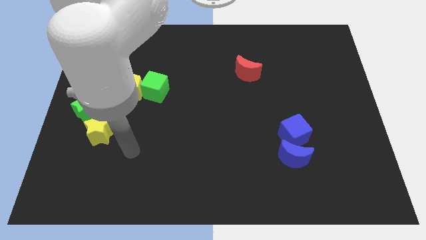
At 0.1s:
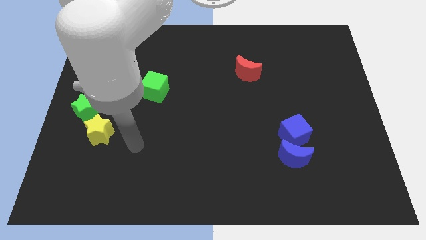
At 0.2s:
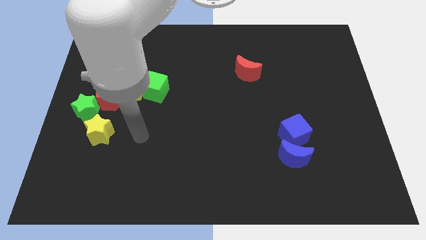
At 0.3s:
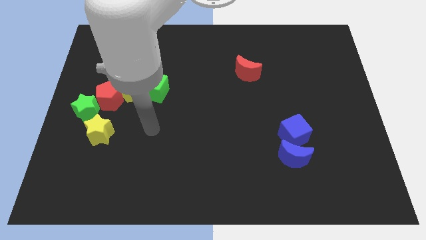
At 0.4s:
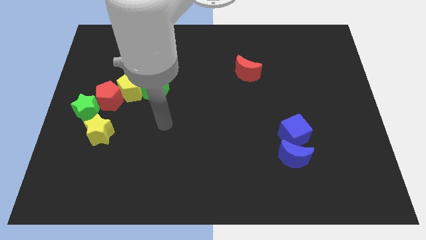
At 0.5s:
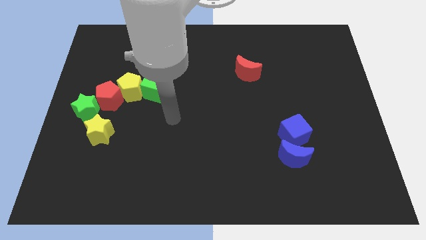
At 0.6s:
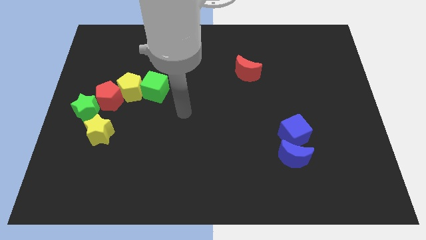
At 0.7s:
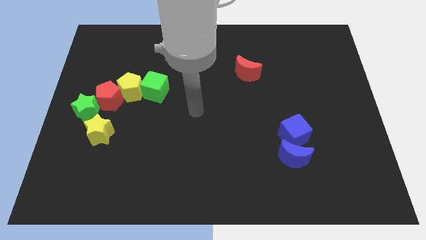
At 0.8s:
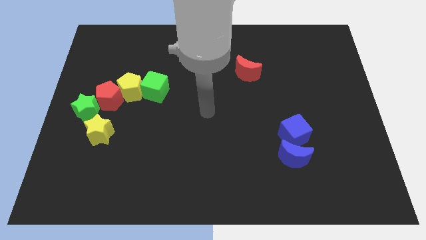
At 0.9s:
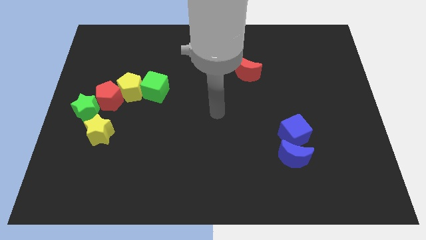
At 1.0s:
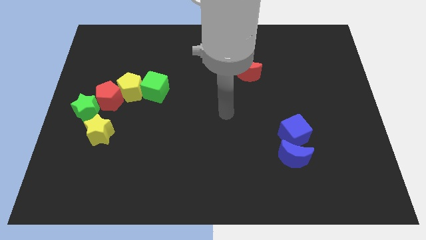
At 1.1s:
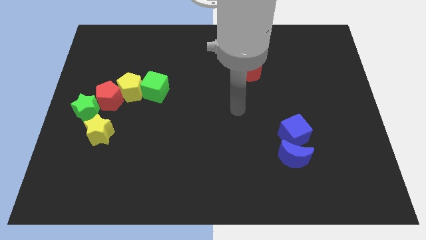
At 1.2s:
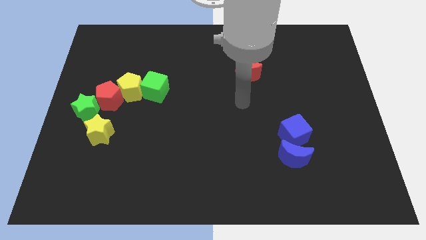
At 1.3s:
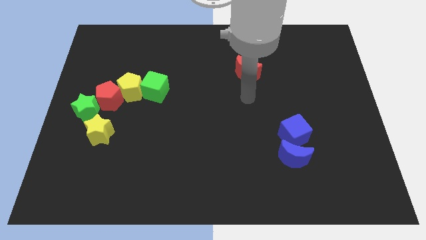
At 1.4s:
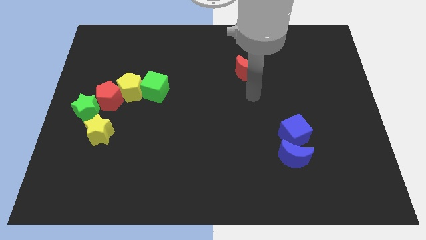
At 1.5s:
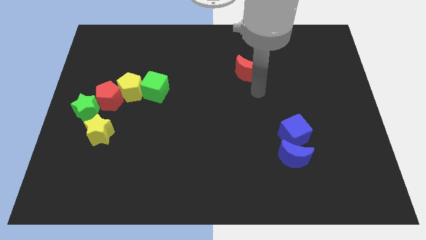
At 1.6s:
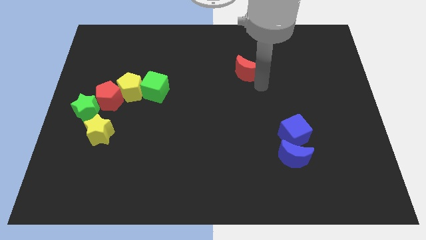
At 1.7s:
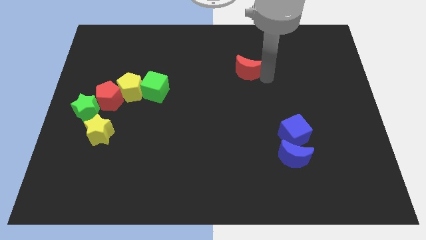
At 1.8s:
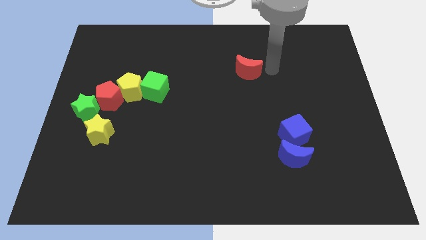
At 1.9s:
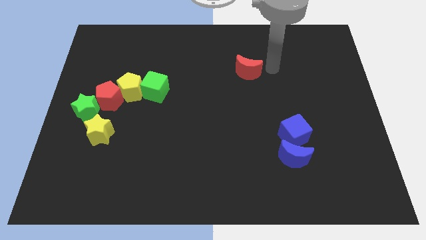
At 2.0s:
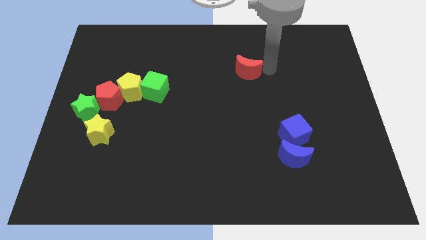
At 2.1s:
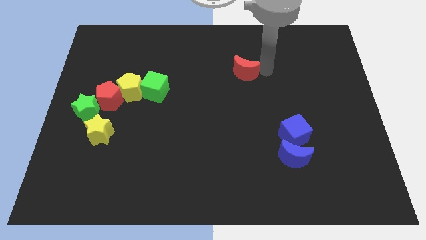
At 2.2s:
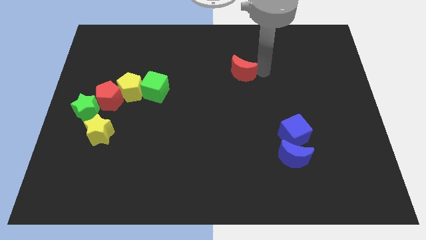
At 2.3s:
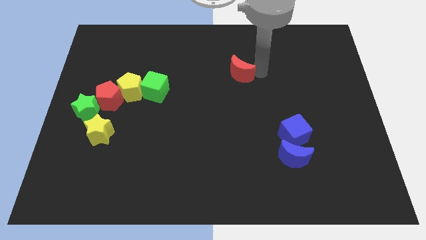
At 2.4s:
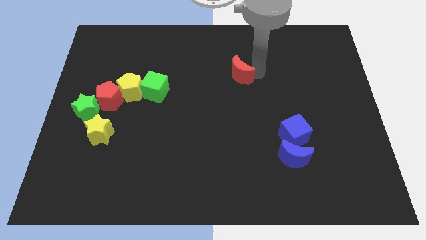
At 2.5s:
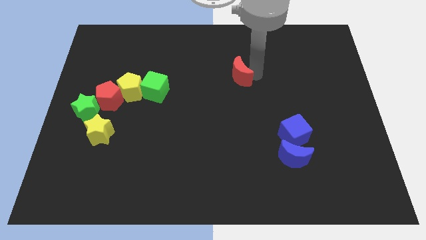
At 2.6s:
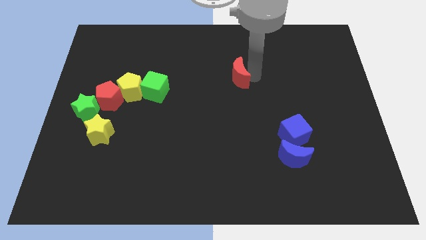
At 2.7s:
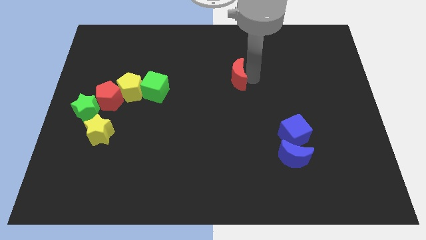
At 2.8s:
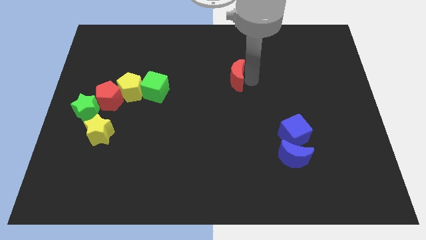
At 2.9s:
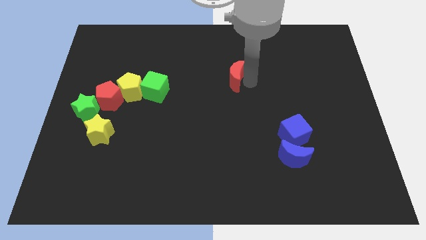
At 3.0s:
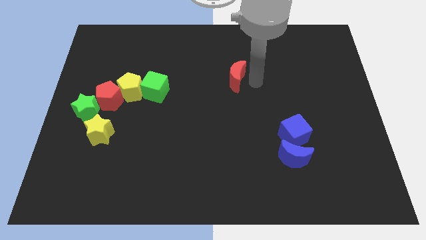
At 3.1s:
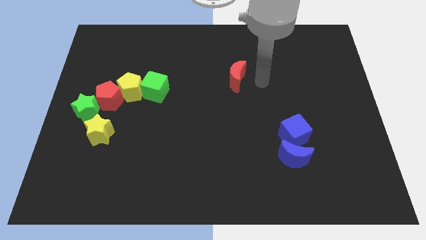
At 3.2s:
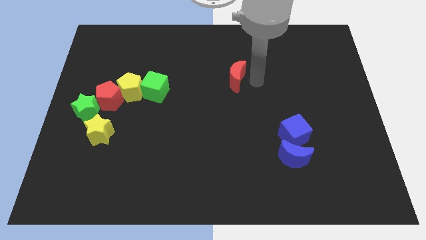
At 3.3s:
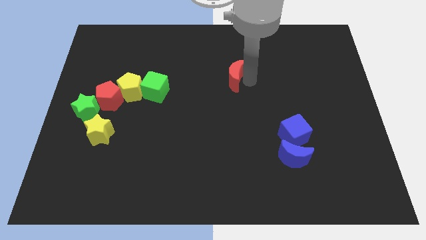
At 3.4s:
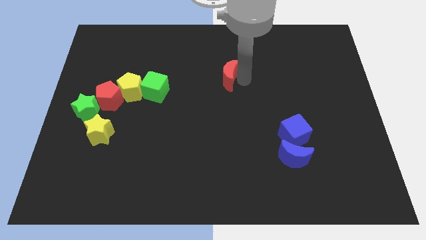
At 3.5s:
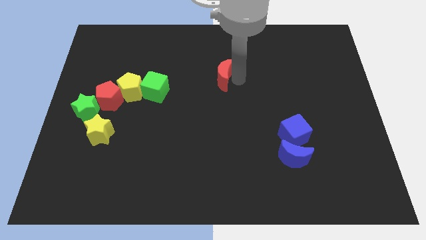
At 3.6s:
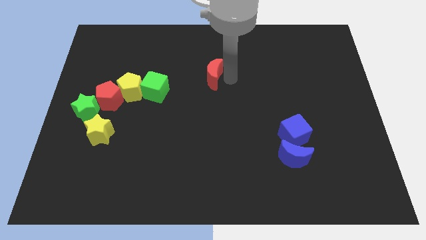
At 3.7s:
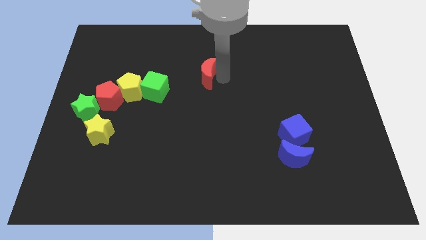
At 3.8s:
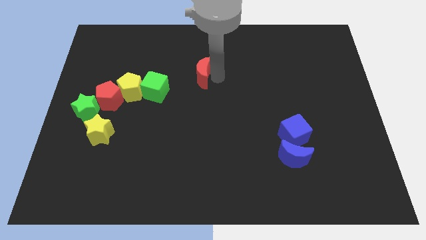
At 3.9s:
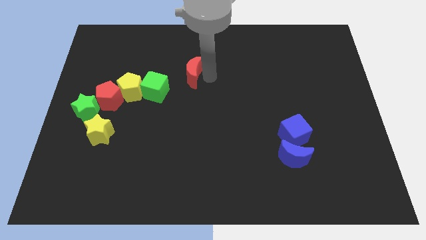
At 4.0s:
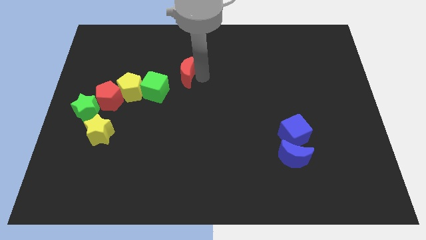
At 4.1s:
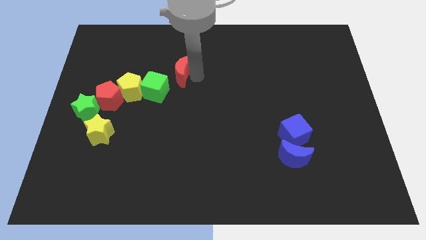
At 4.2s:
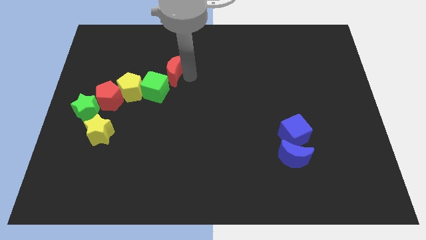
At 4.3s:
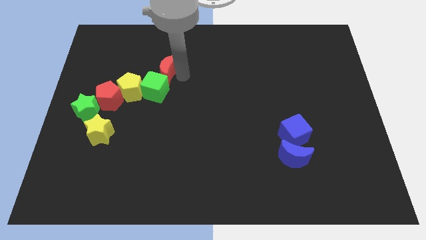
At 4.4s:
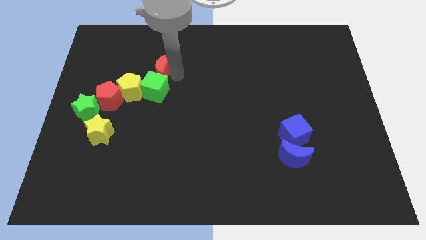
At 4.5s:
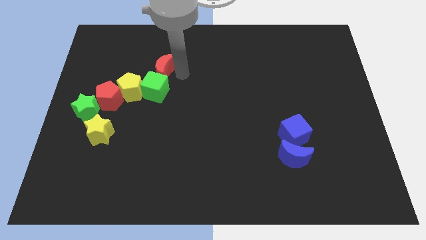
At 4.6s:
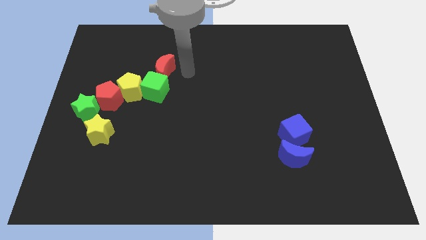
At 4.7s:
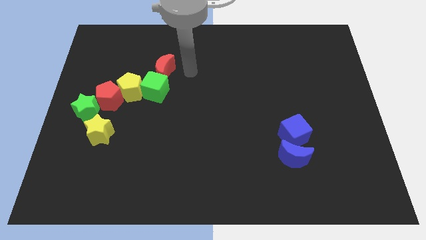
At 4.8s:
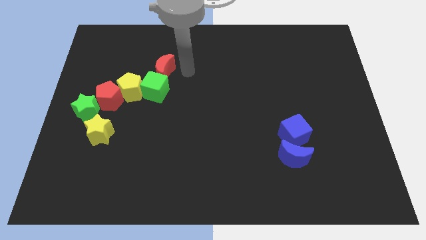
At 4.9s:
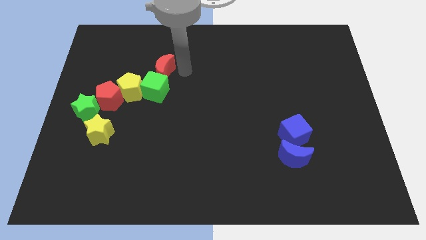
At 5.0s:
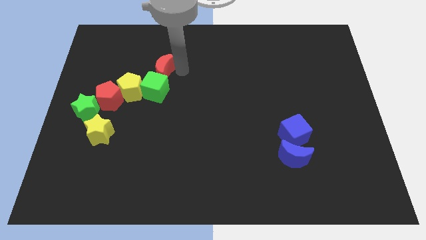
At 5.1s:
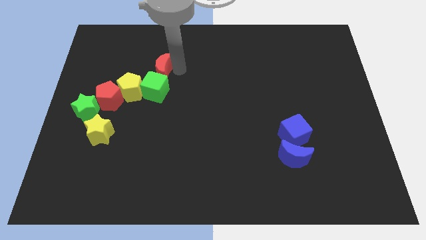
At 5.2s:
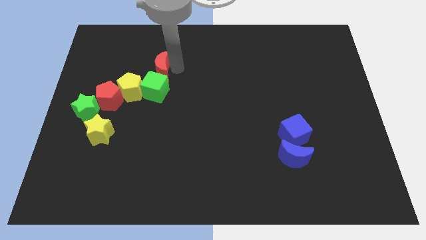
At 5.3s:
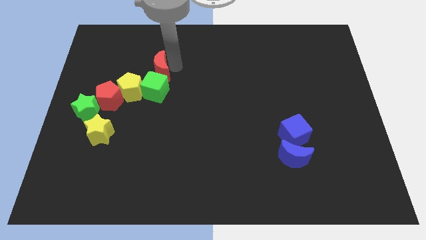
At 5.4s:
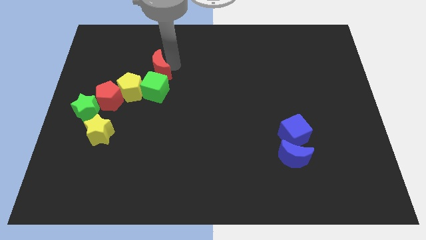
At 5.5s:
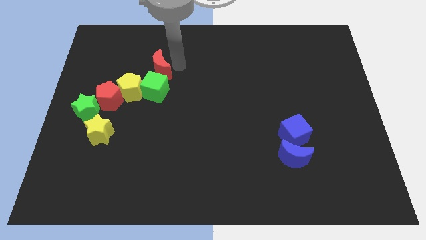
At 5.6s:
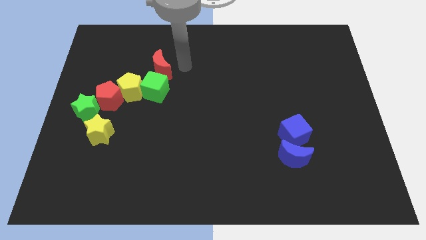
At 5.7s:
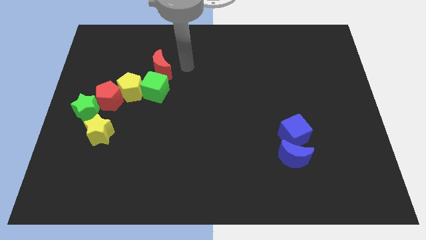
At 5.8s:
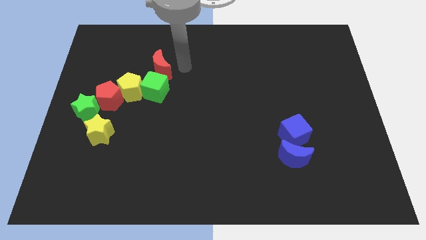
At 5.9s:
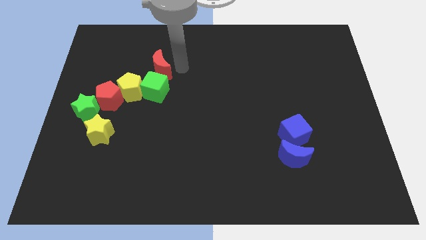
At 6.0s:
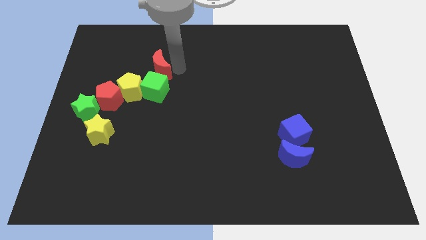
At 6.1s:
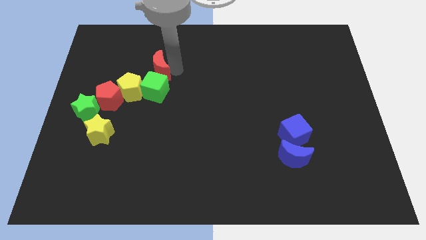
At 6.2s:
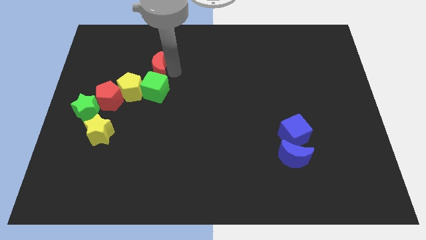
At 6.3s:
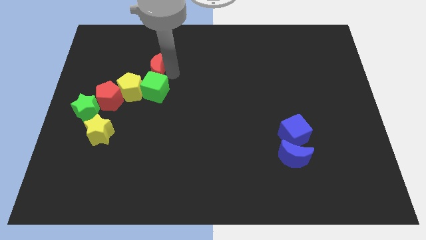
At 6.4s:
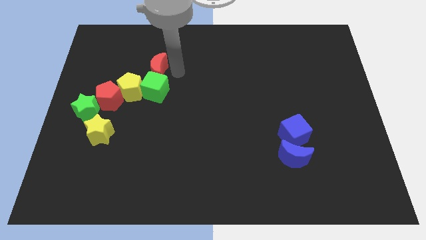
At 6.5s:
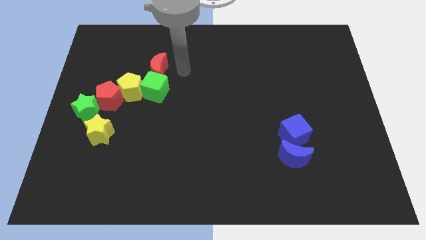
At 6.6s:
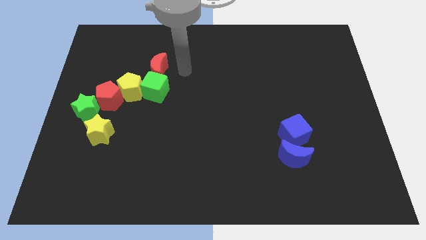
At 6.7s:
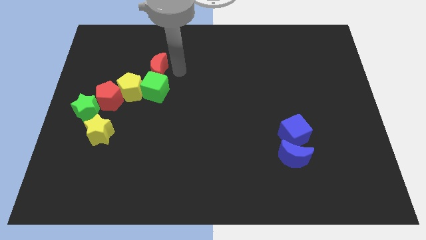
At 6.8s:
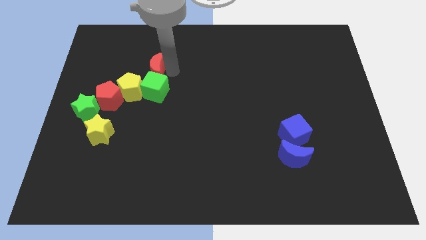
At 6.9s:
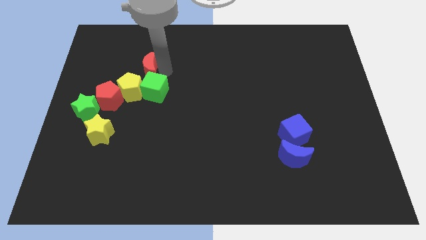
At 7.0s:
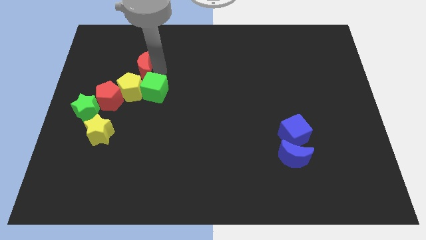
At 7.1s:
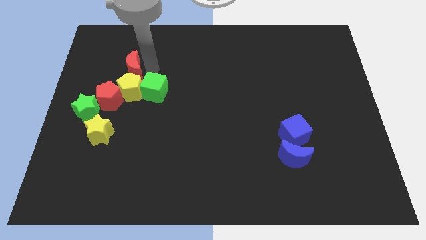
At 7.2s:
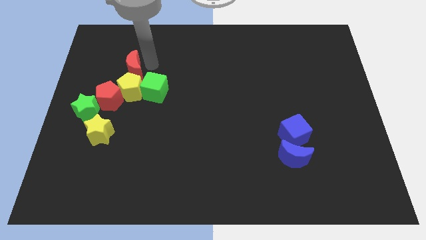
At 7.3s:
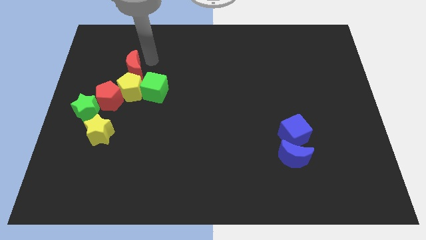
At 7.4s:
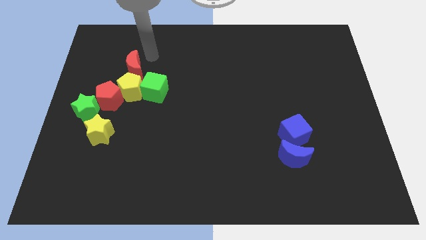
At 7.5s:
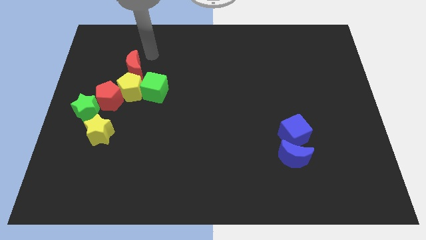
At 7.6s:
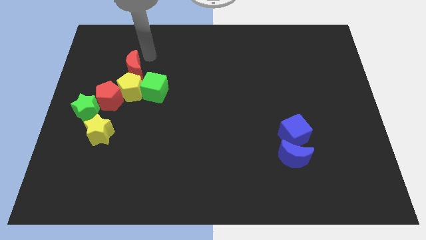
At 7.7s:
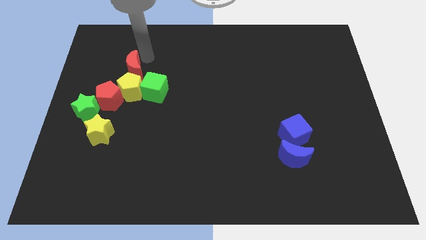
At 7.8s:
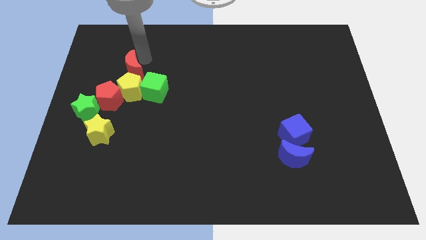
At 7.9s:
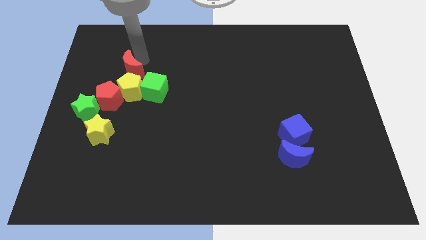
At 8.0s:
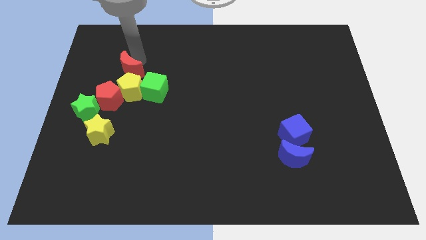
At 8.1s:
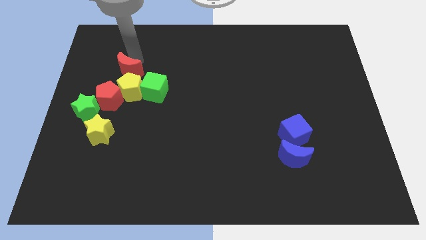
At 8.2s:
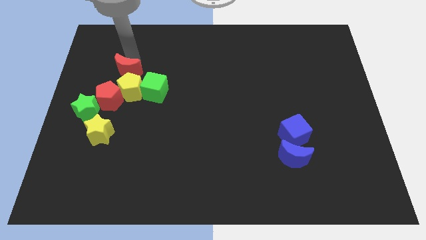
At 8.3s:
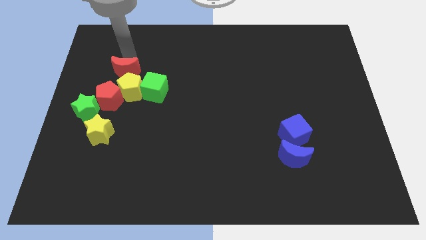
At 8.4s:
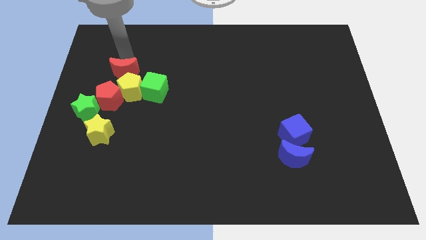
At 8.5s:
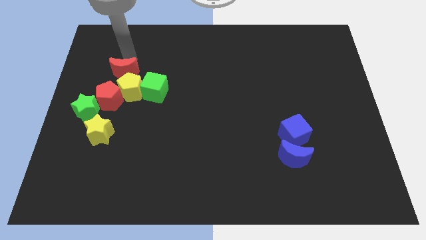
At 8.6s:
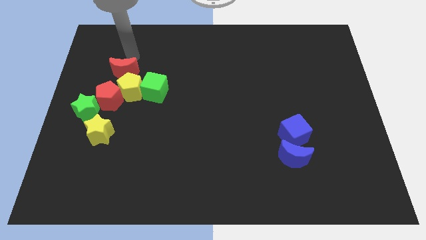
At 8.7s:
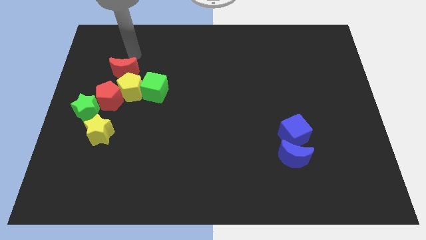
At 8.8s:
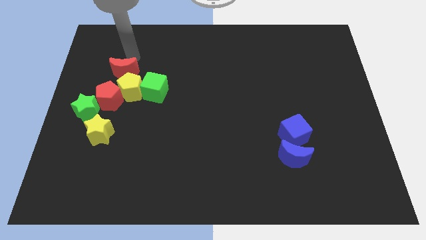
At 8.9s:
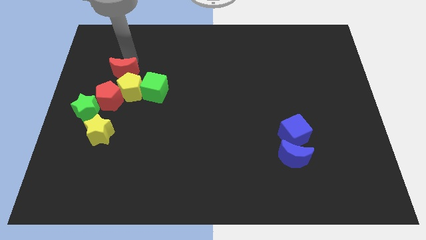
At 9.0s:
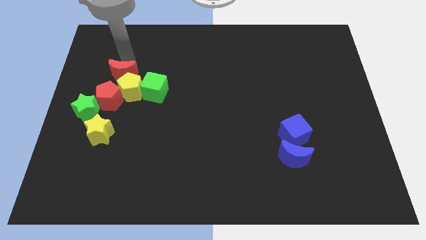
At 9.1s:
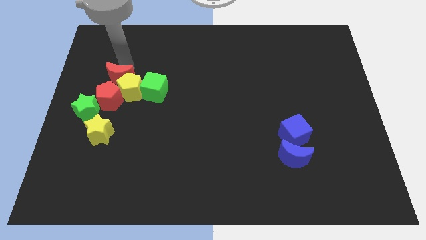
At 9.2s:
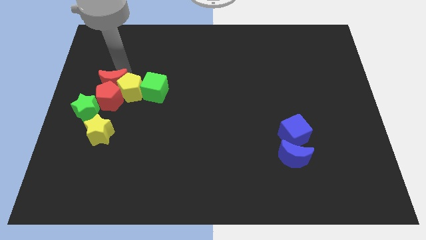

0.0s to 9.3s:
slide the red moon to the red pentagon
